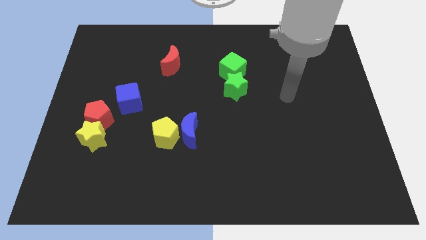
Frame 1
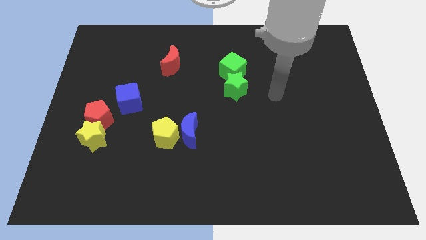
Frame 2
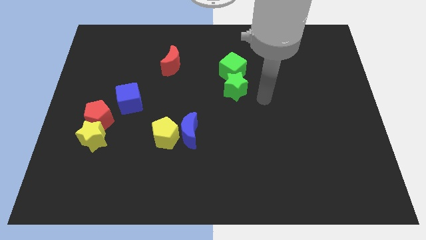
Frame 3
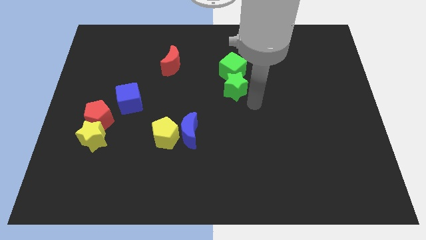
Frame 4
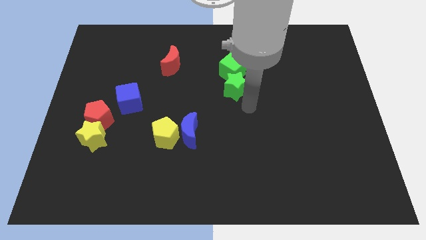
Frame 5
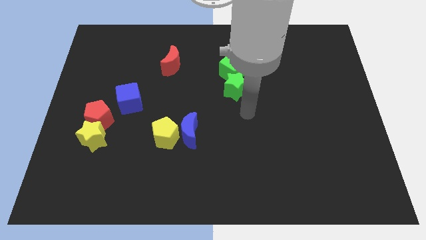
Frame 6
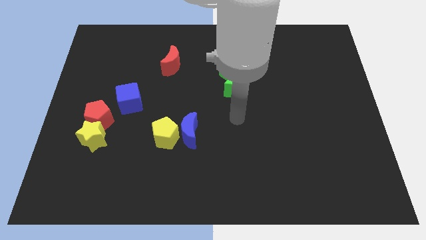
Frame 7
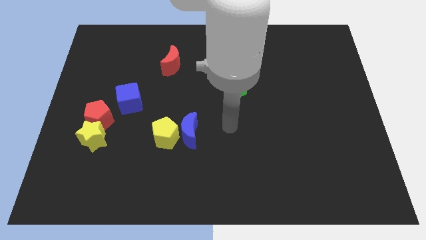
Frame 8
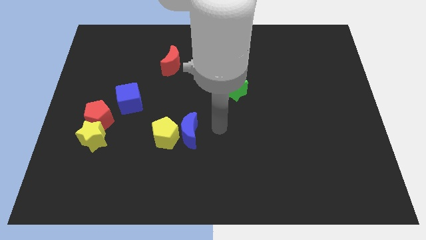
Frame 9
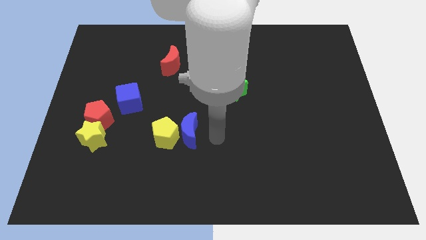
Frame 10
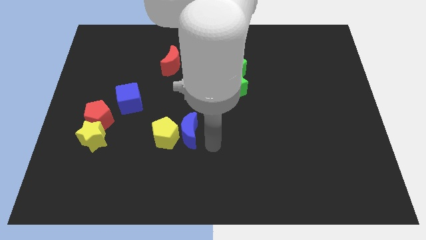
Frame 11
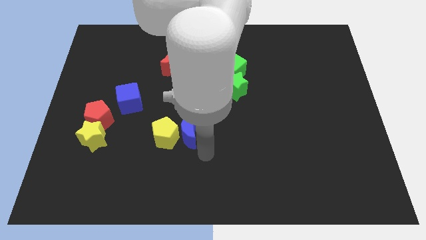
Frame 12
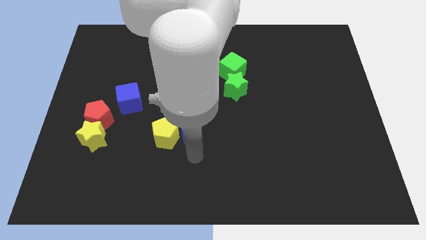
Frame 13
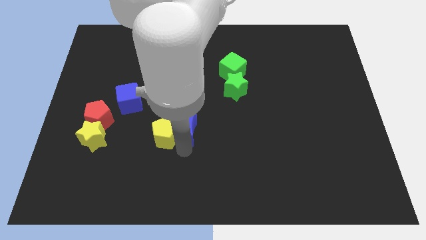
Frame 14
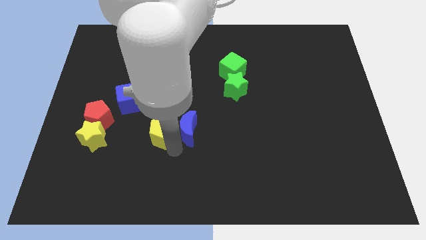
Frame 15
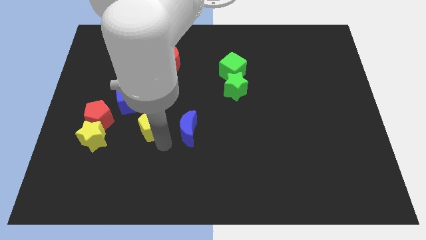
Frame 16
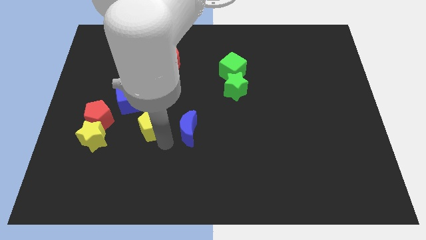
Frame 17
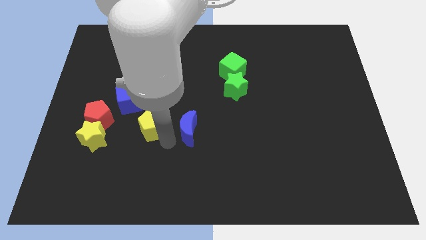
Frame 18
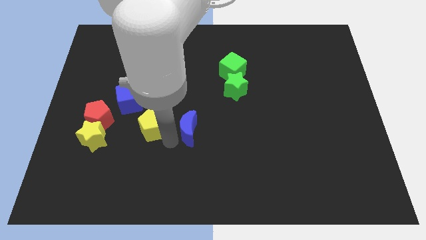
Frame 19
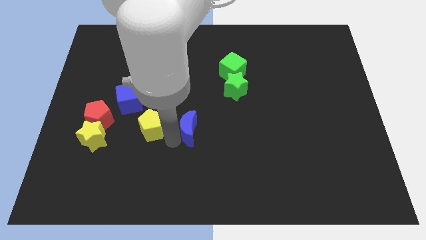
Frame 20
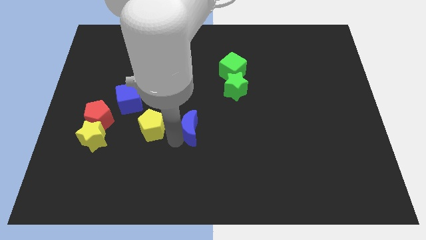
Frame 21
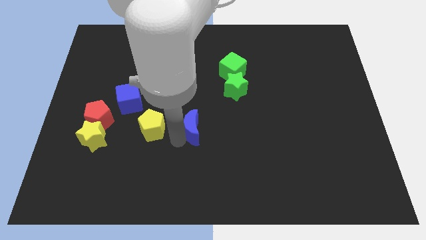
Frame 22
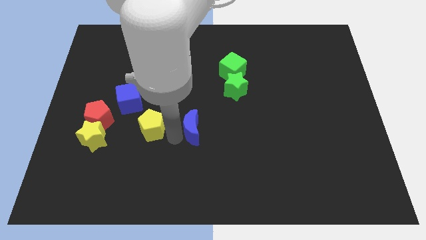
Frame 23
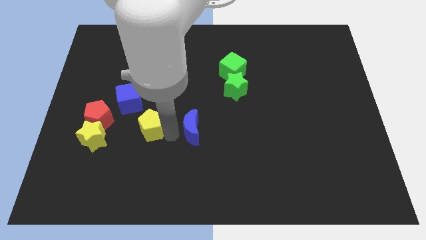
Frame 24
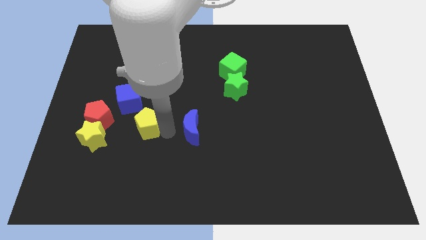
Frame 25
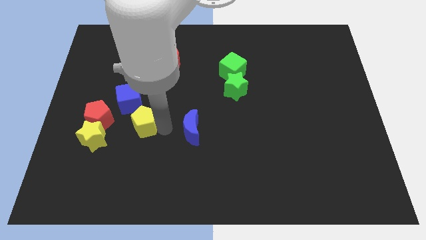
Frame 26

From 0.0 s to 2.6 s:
separate the blue moon from the yellow pentagon

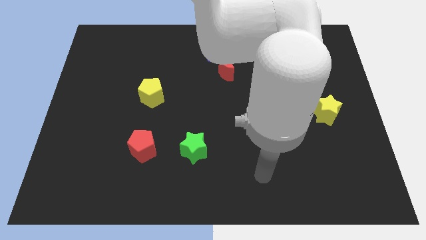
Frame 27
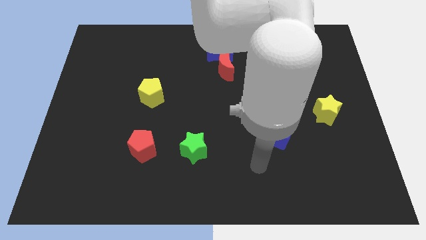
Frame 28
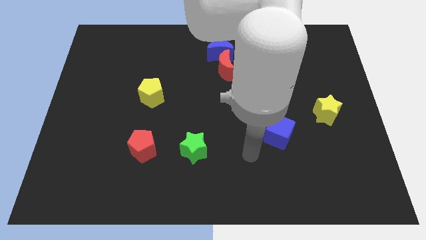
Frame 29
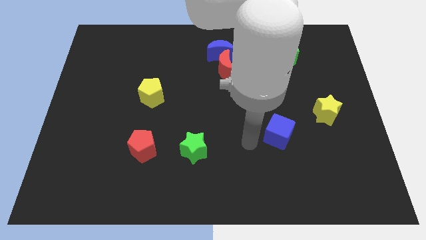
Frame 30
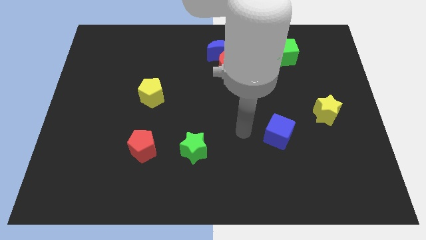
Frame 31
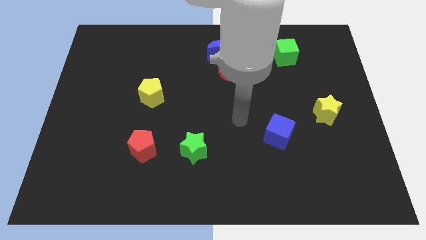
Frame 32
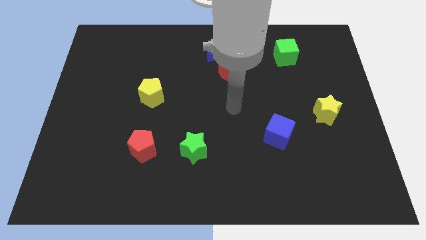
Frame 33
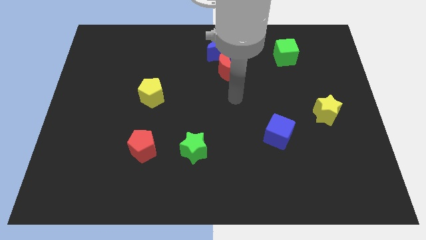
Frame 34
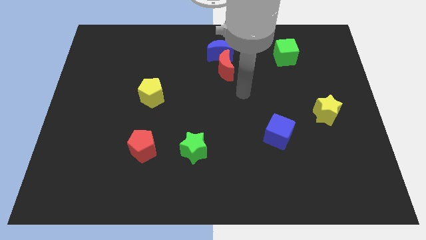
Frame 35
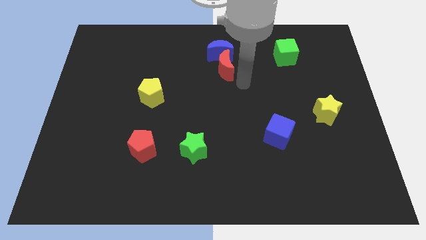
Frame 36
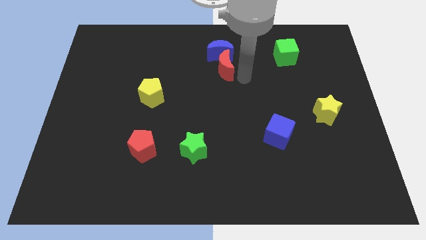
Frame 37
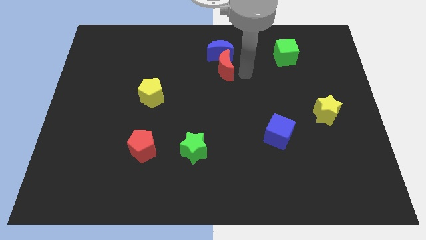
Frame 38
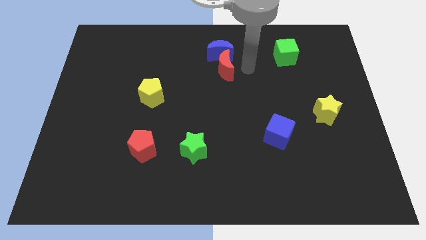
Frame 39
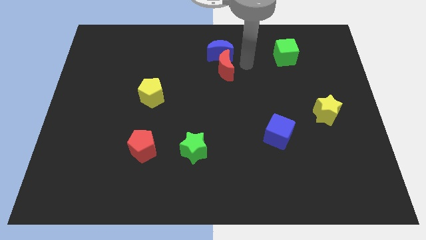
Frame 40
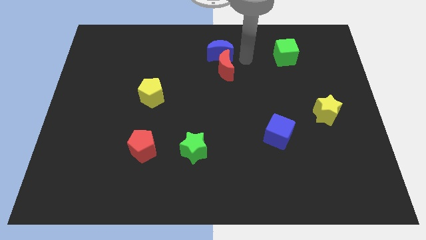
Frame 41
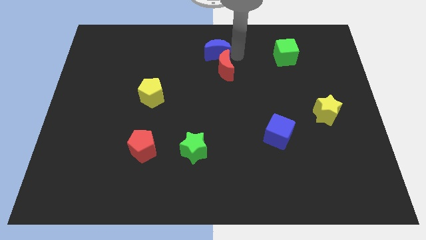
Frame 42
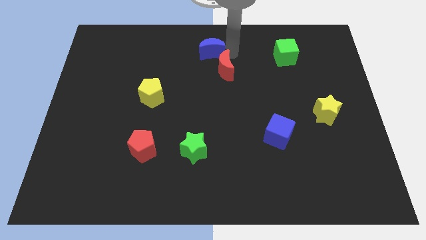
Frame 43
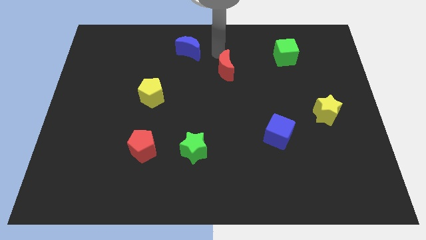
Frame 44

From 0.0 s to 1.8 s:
move the red moon away from the blue moon

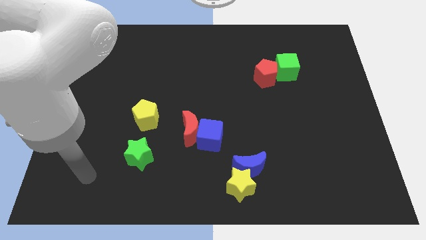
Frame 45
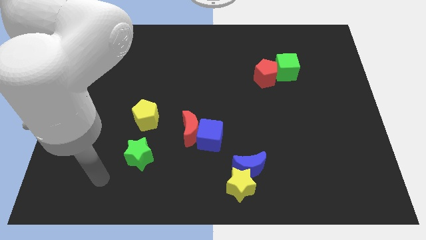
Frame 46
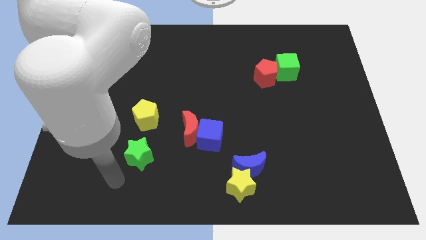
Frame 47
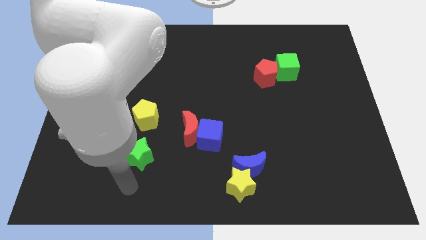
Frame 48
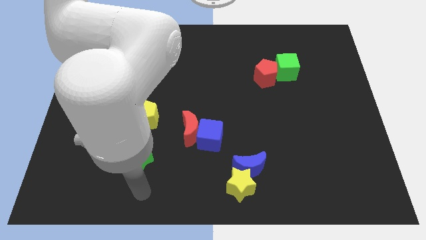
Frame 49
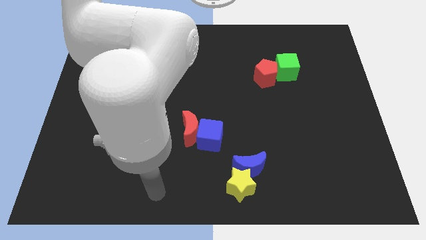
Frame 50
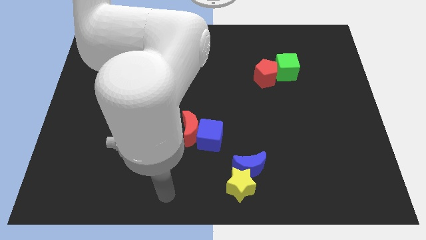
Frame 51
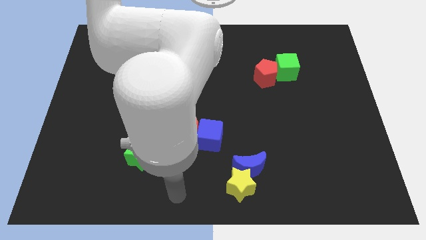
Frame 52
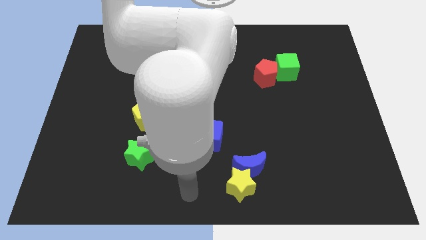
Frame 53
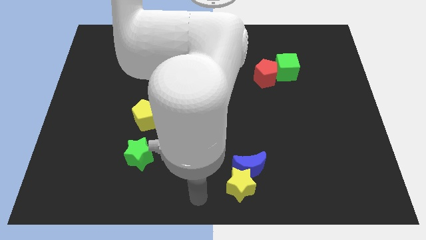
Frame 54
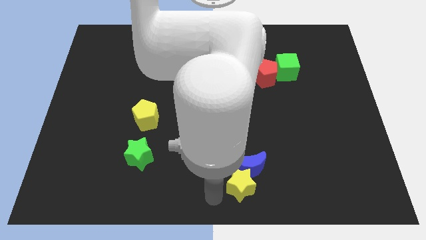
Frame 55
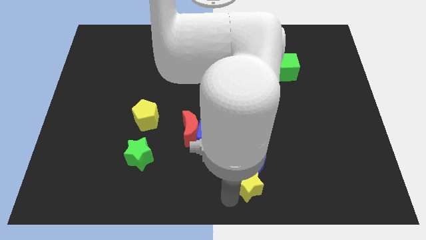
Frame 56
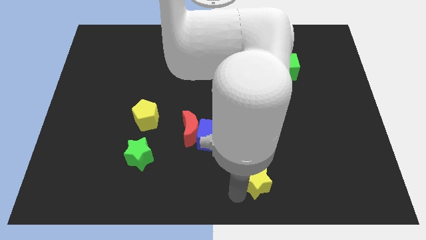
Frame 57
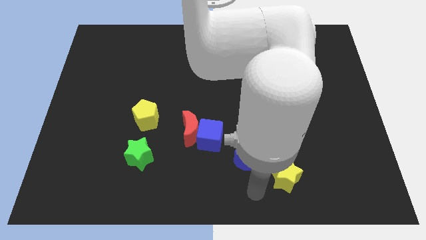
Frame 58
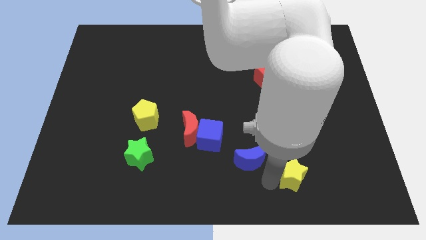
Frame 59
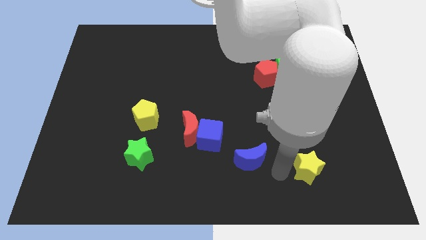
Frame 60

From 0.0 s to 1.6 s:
separate the blue moon from the yellow star

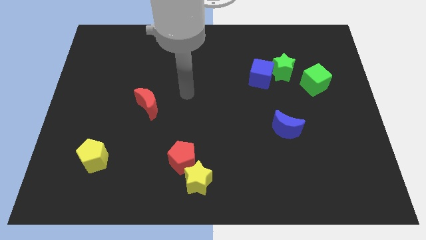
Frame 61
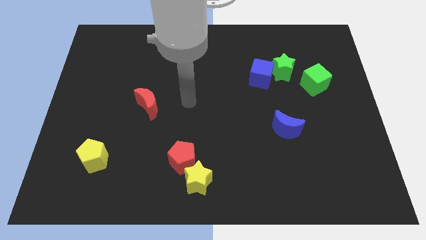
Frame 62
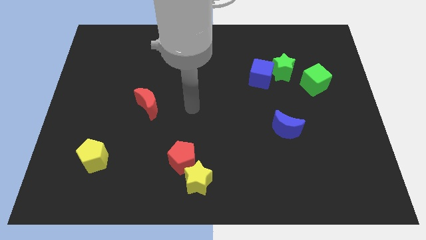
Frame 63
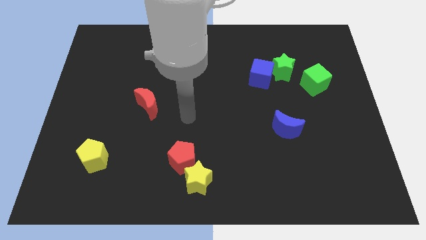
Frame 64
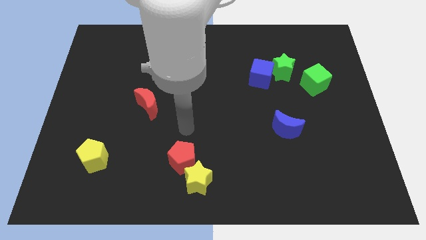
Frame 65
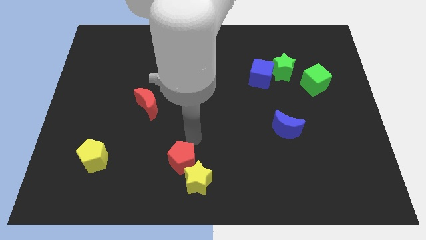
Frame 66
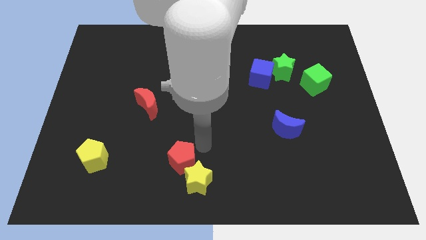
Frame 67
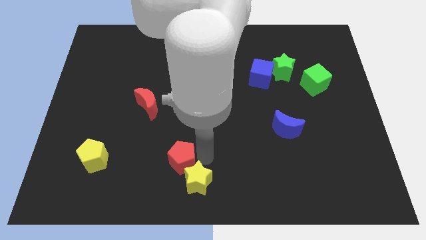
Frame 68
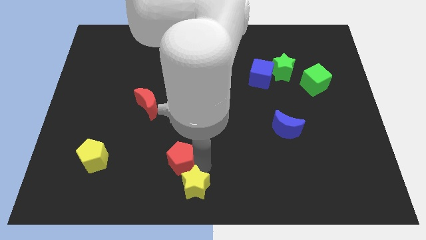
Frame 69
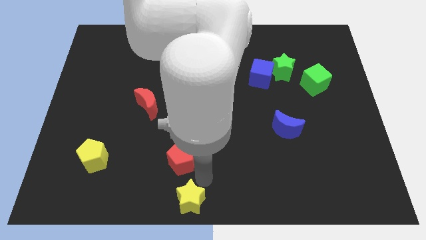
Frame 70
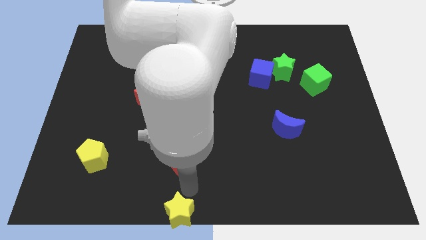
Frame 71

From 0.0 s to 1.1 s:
move the red pentagon away from the yellow star

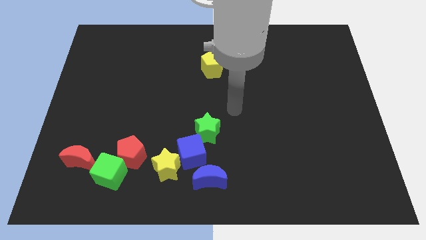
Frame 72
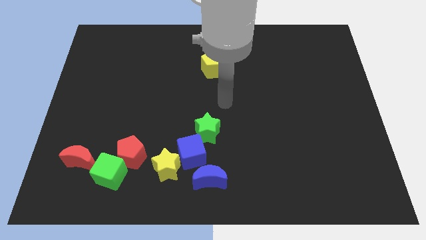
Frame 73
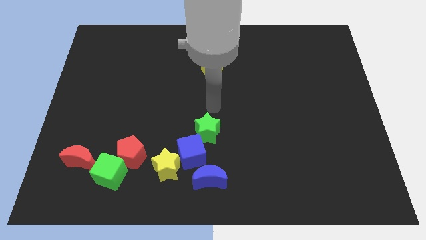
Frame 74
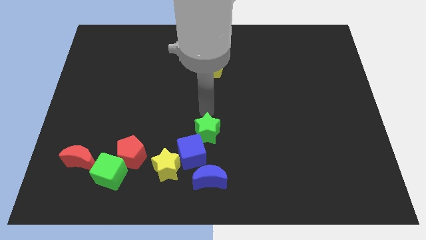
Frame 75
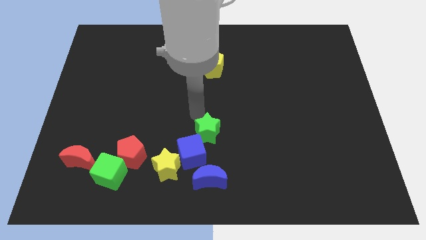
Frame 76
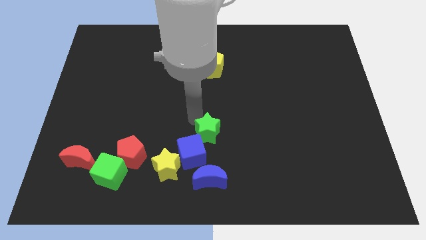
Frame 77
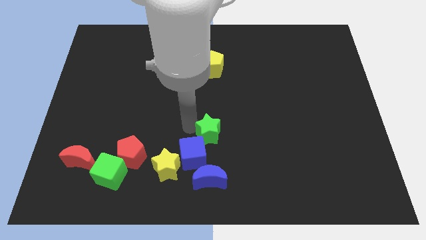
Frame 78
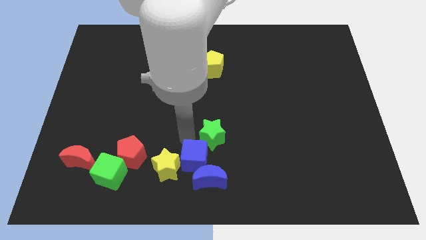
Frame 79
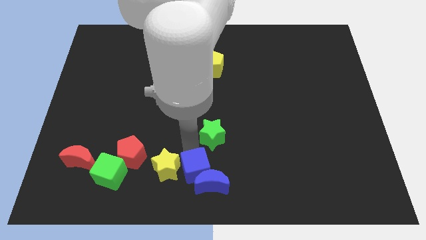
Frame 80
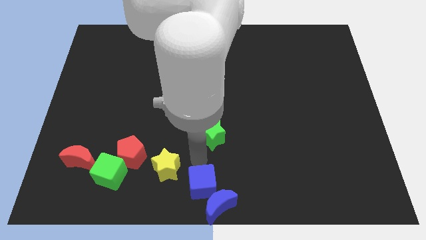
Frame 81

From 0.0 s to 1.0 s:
separate the green star from the blue cube

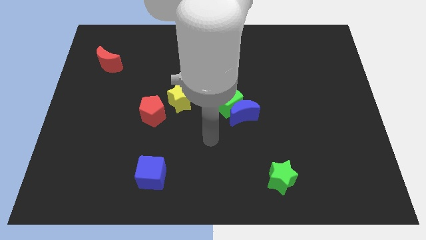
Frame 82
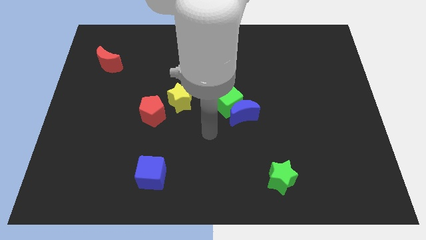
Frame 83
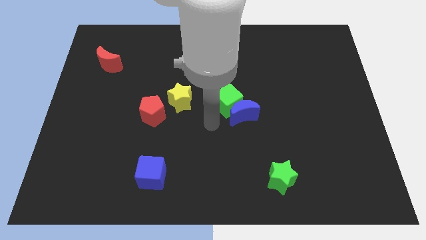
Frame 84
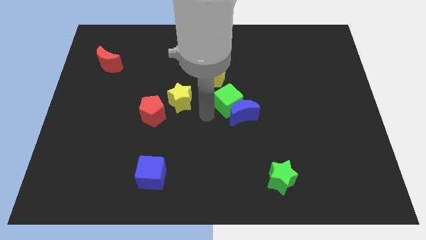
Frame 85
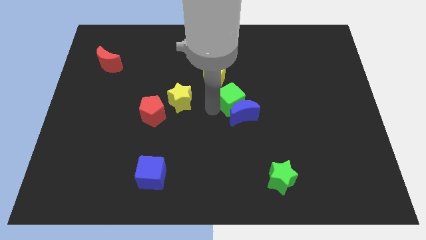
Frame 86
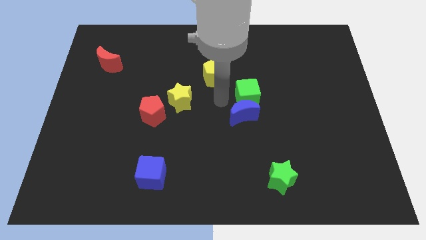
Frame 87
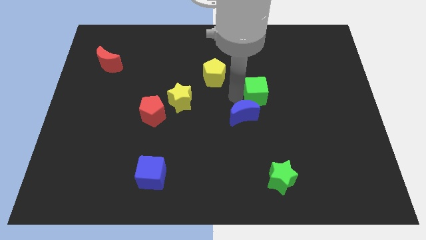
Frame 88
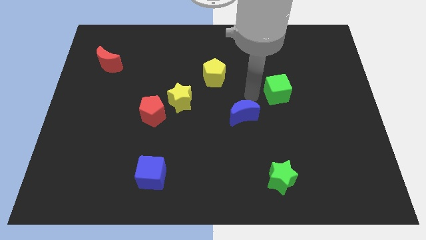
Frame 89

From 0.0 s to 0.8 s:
separate the blue moon from the green cube

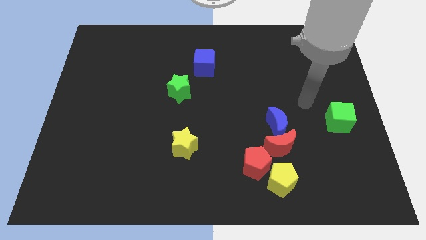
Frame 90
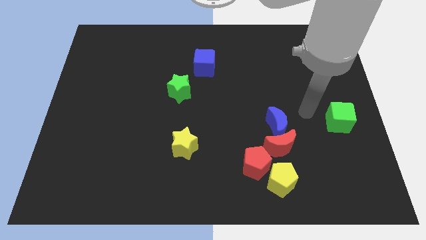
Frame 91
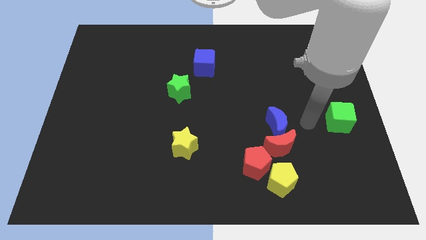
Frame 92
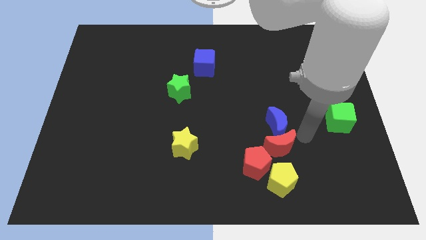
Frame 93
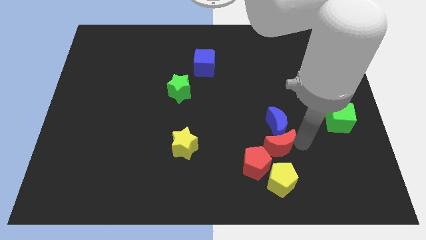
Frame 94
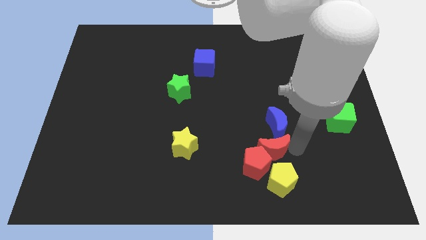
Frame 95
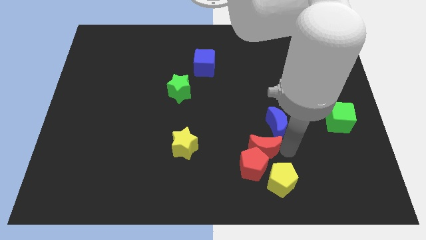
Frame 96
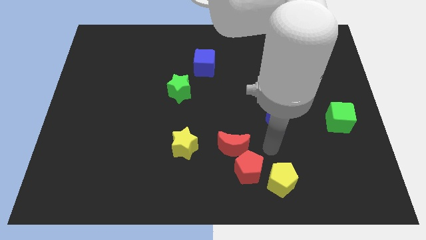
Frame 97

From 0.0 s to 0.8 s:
pull the blue moon apart from the red moon
